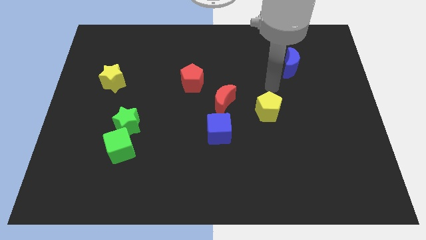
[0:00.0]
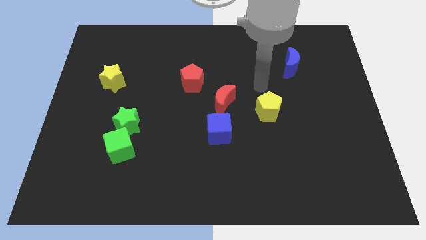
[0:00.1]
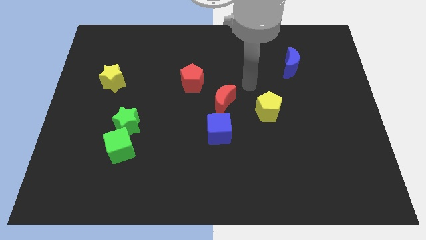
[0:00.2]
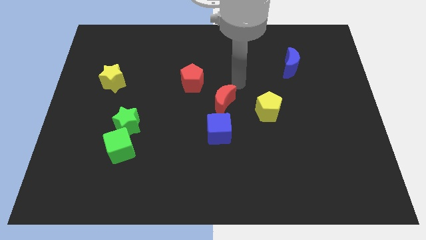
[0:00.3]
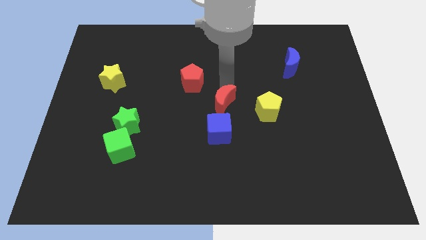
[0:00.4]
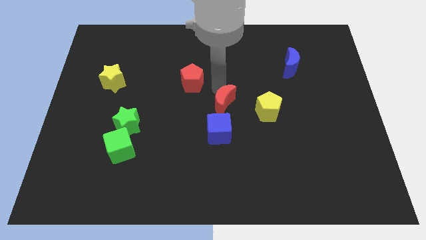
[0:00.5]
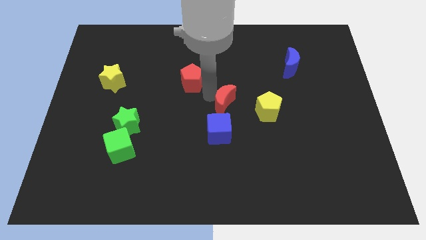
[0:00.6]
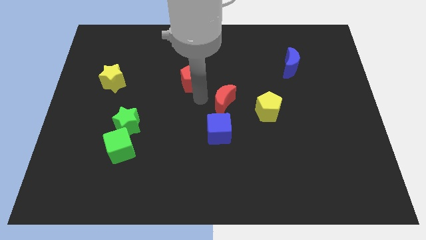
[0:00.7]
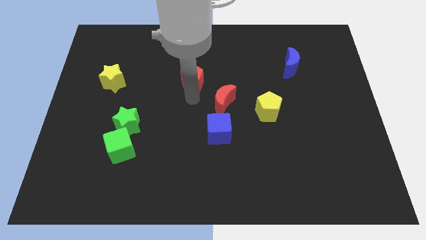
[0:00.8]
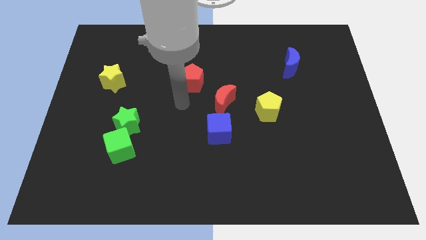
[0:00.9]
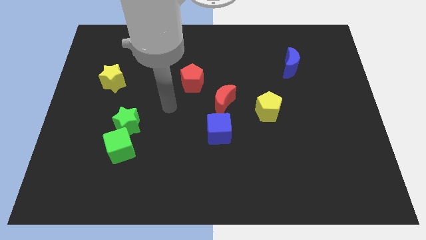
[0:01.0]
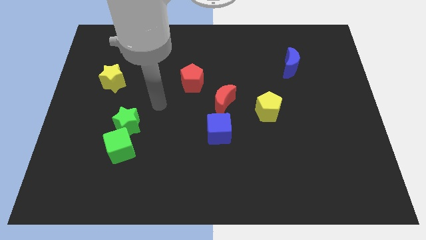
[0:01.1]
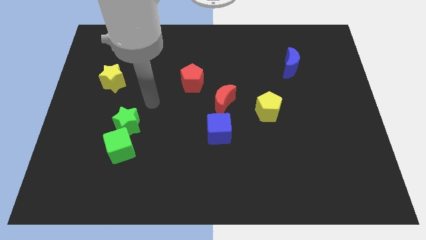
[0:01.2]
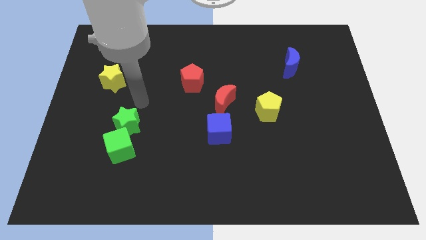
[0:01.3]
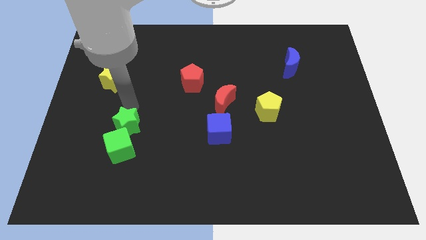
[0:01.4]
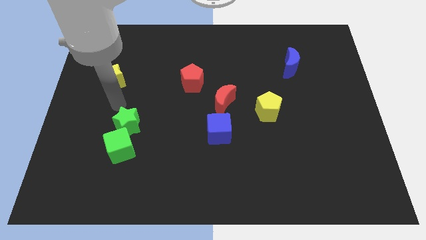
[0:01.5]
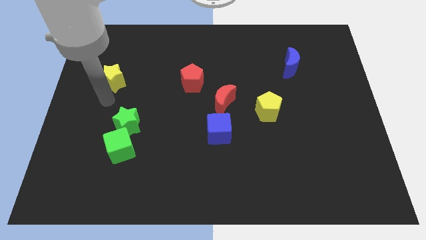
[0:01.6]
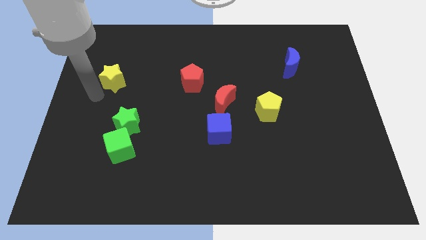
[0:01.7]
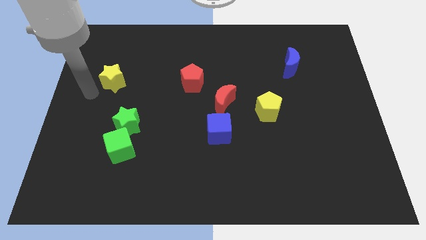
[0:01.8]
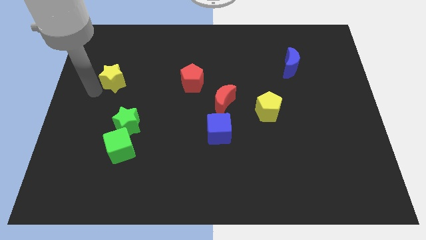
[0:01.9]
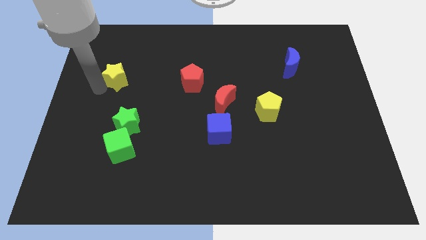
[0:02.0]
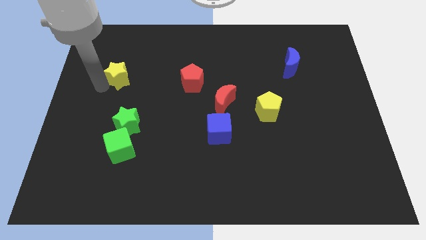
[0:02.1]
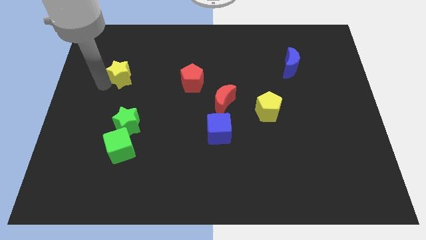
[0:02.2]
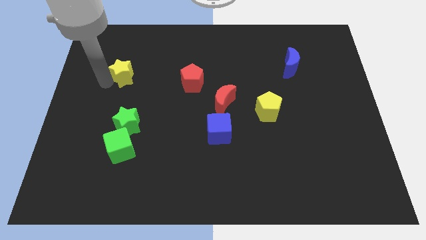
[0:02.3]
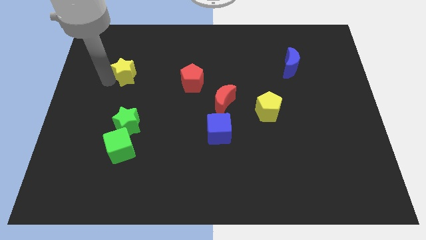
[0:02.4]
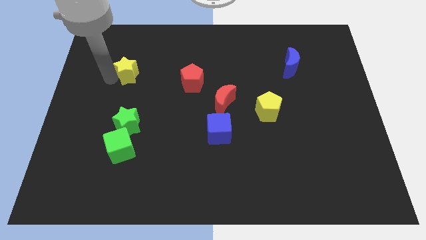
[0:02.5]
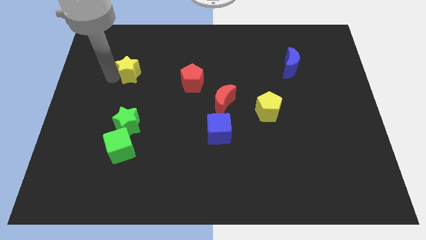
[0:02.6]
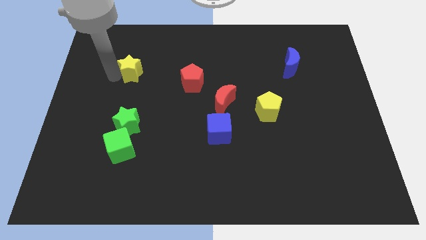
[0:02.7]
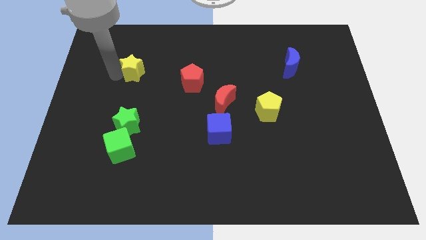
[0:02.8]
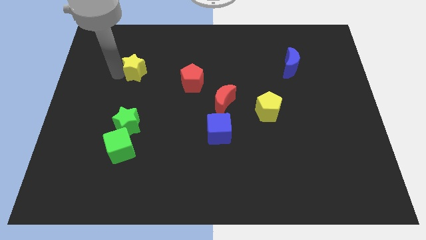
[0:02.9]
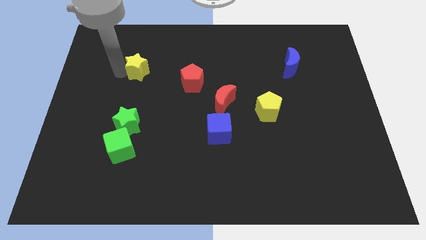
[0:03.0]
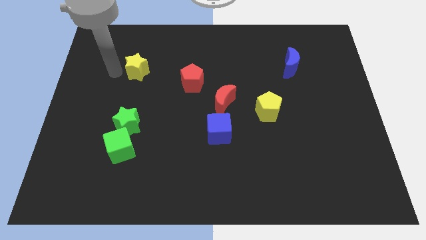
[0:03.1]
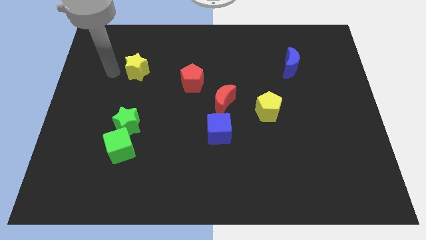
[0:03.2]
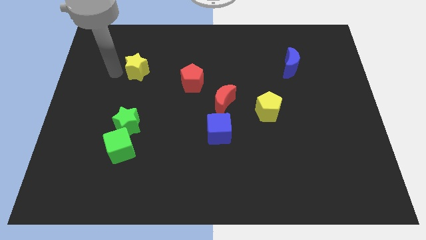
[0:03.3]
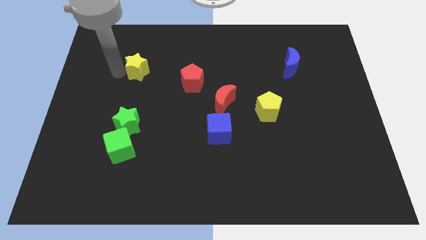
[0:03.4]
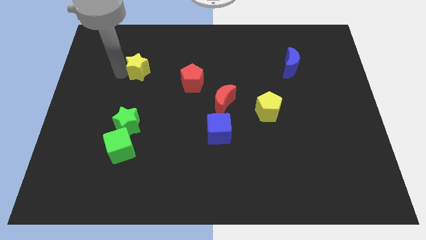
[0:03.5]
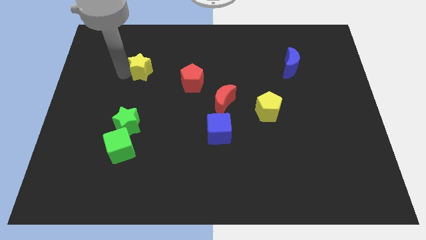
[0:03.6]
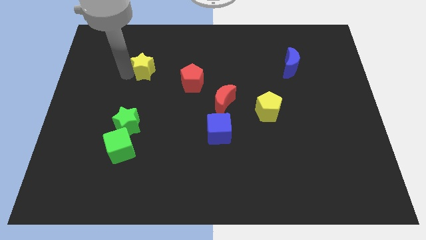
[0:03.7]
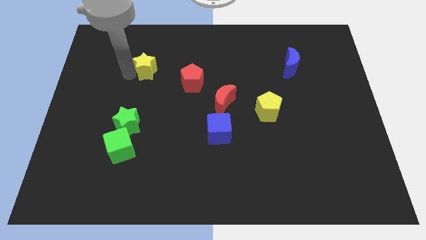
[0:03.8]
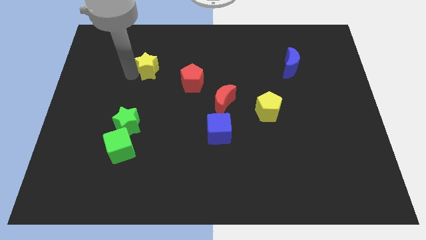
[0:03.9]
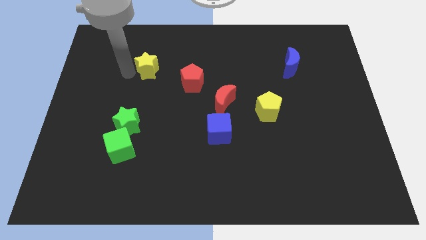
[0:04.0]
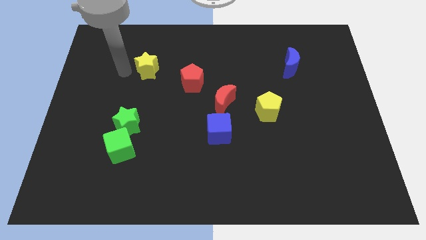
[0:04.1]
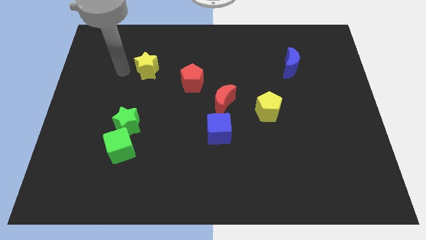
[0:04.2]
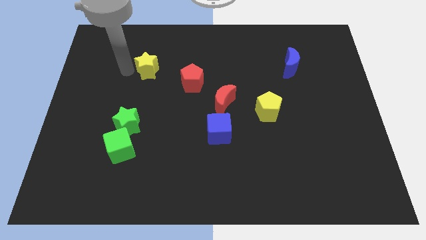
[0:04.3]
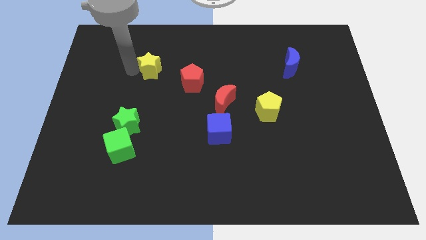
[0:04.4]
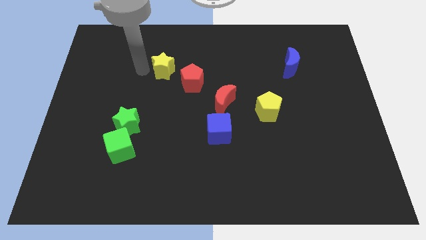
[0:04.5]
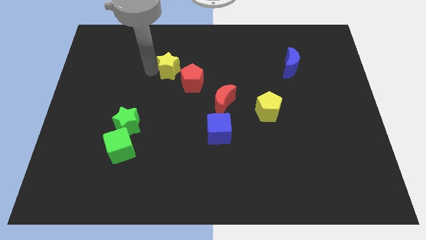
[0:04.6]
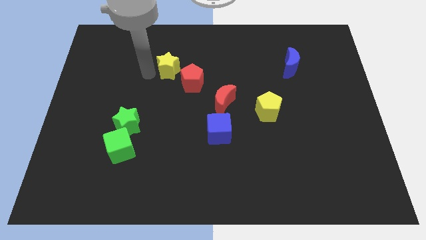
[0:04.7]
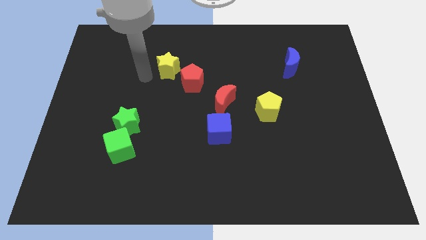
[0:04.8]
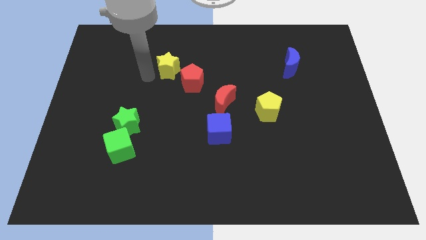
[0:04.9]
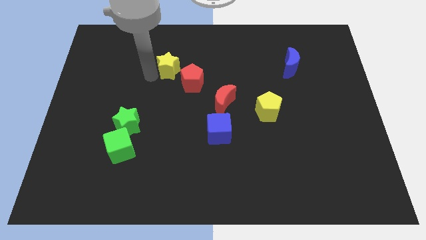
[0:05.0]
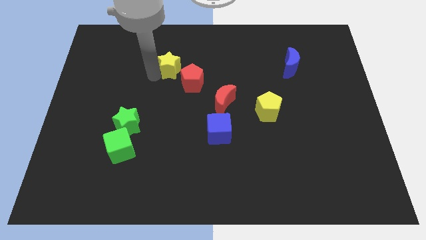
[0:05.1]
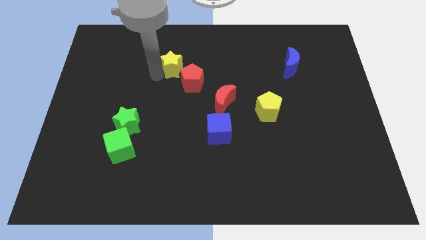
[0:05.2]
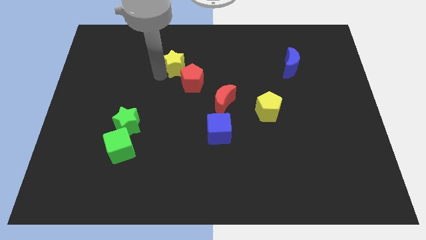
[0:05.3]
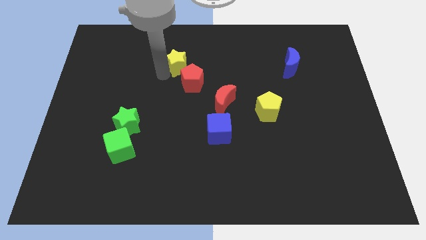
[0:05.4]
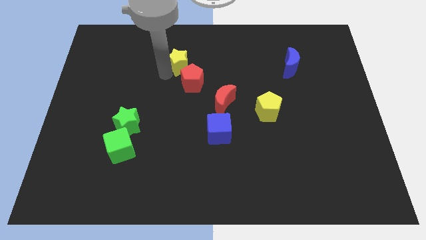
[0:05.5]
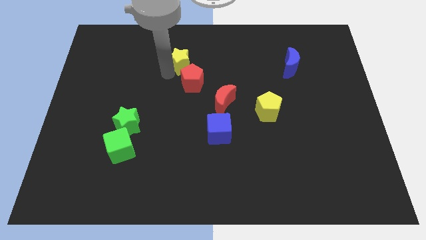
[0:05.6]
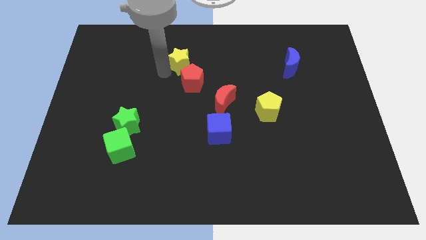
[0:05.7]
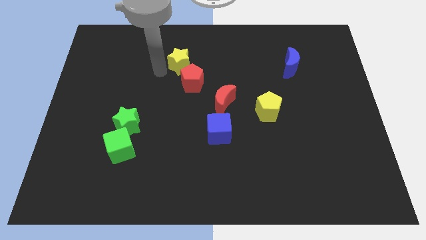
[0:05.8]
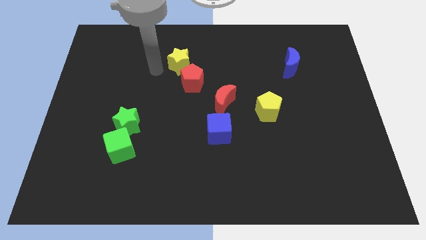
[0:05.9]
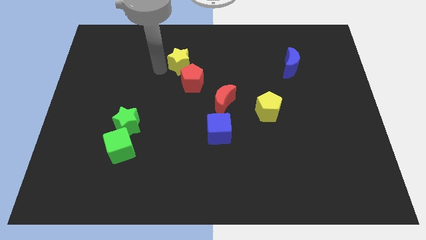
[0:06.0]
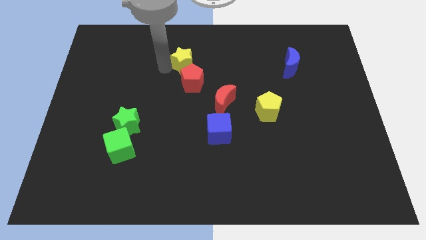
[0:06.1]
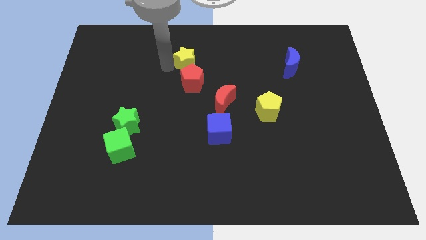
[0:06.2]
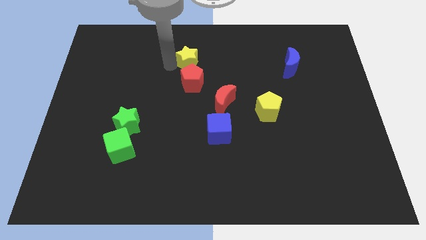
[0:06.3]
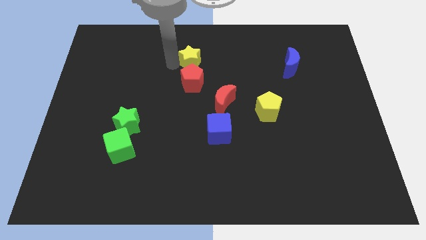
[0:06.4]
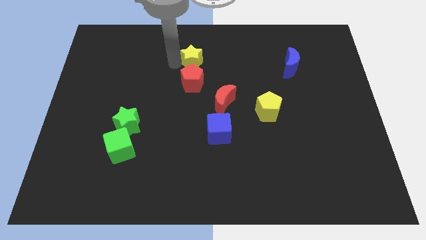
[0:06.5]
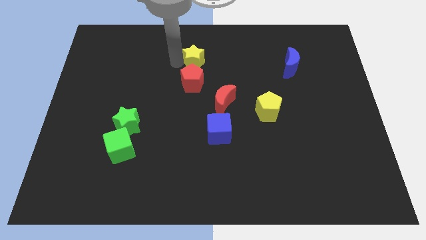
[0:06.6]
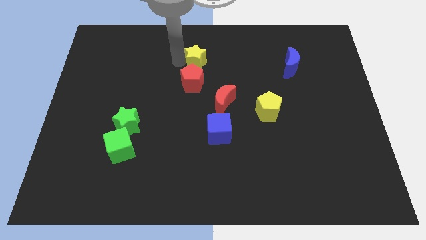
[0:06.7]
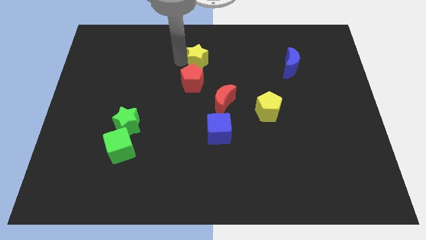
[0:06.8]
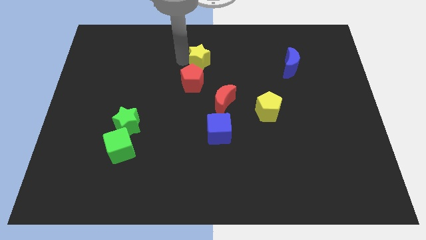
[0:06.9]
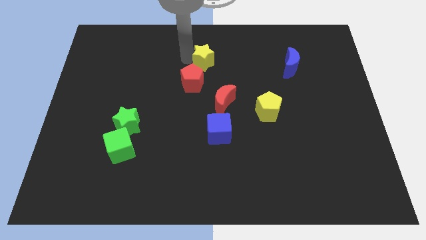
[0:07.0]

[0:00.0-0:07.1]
push the yellow star to the right

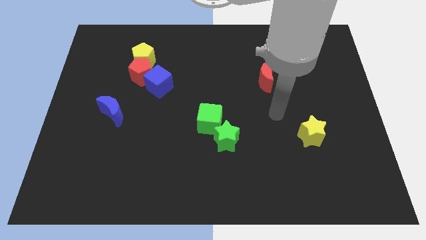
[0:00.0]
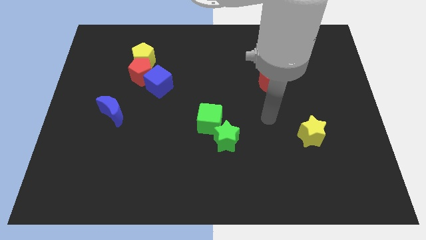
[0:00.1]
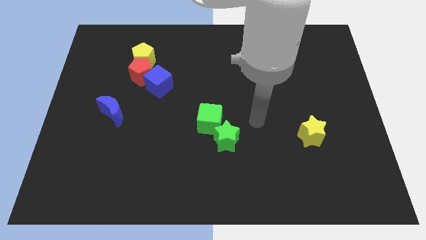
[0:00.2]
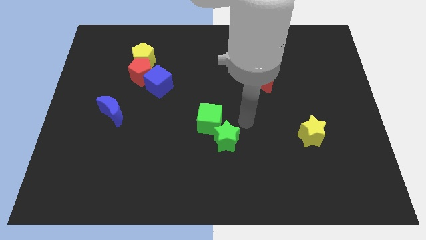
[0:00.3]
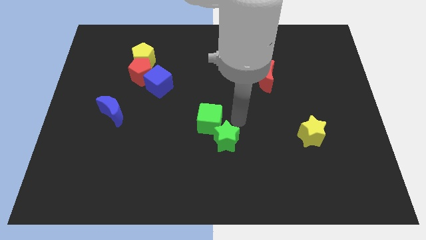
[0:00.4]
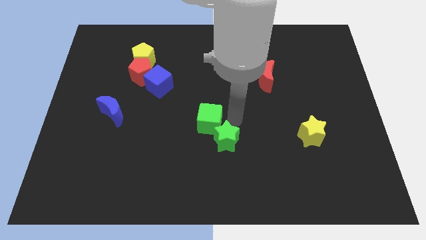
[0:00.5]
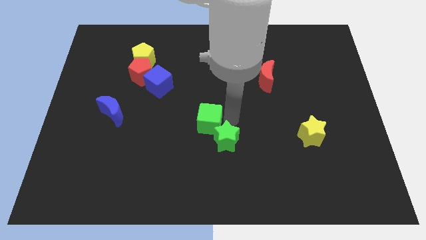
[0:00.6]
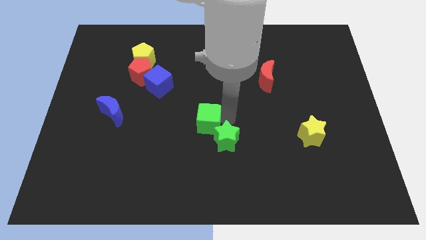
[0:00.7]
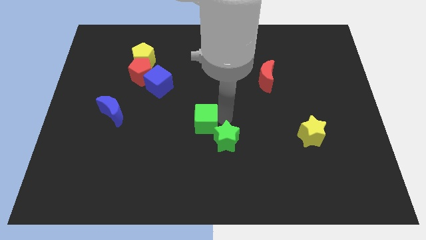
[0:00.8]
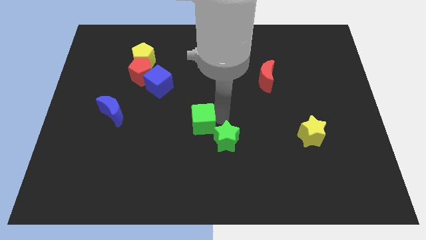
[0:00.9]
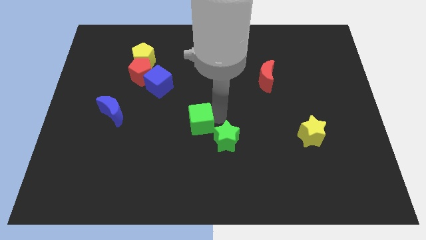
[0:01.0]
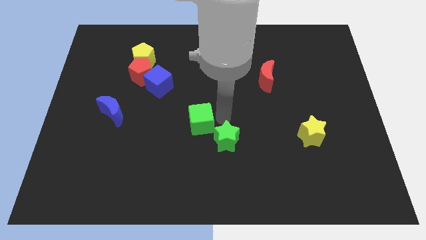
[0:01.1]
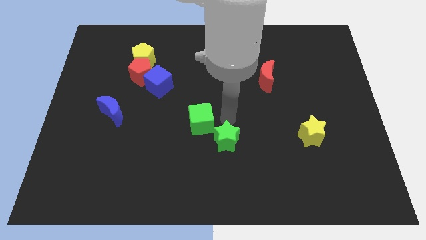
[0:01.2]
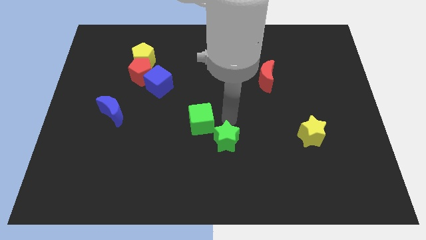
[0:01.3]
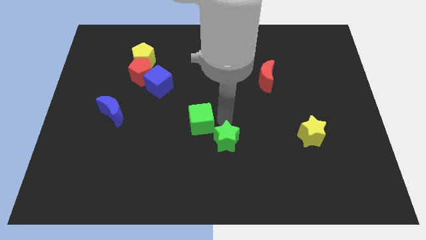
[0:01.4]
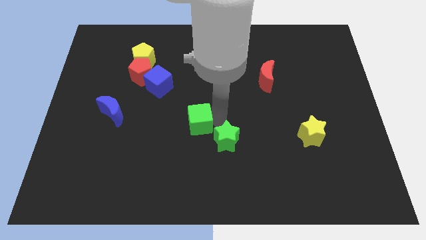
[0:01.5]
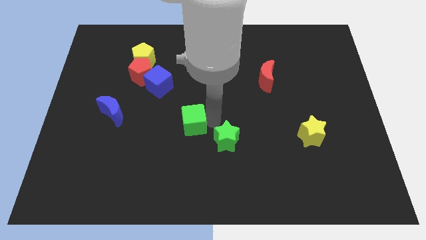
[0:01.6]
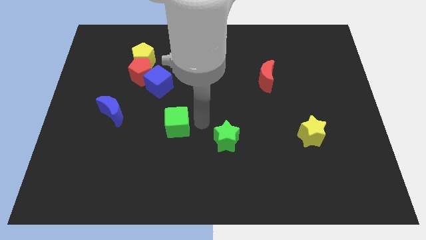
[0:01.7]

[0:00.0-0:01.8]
slightly push the green cube to the left
